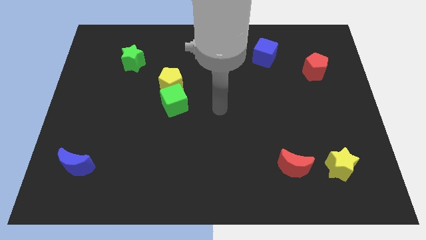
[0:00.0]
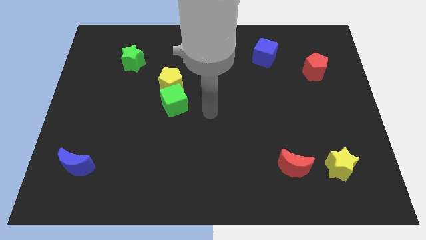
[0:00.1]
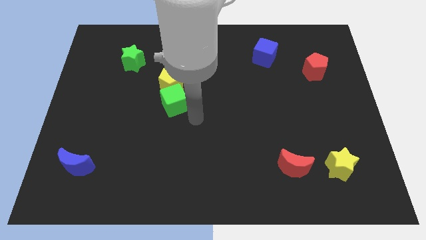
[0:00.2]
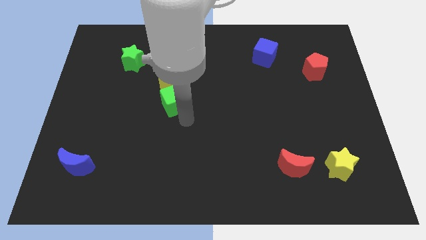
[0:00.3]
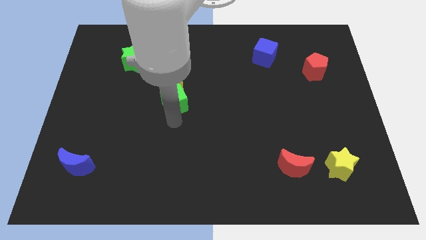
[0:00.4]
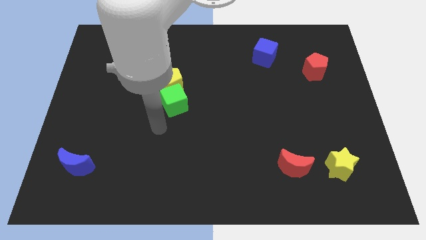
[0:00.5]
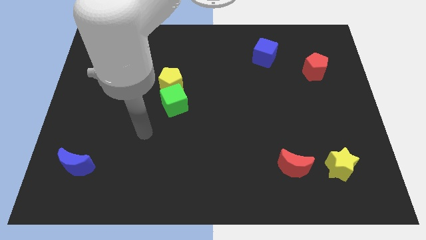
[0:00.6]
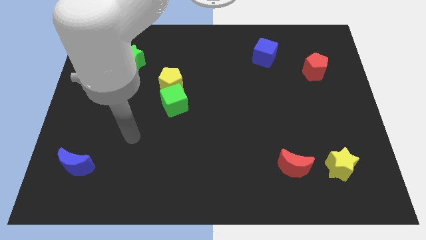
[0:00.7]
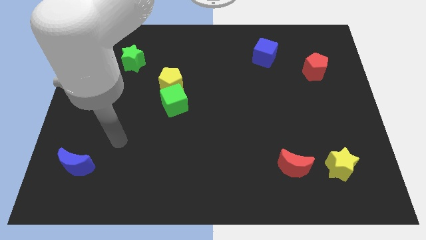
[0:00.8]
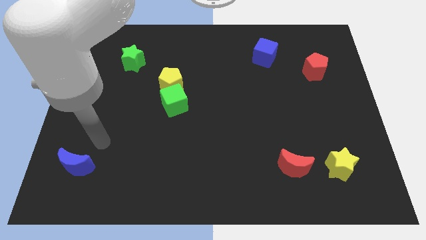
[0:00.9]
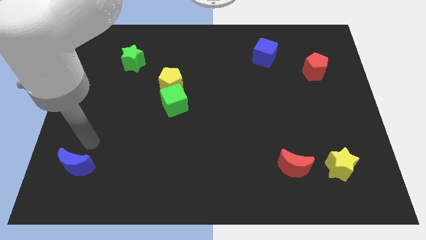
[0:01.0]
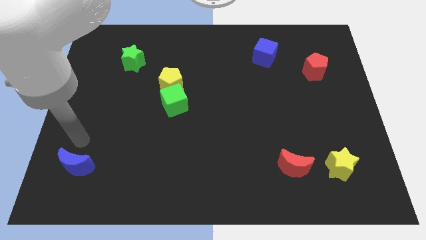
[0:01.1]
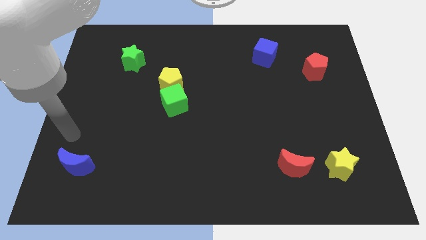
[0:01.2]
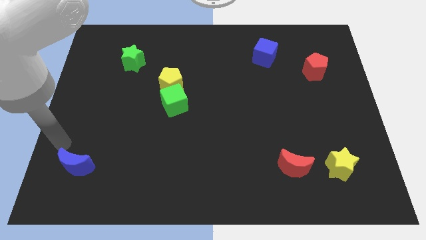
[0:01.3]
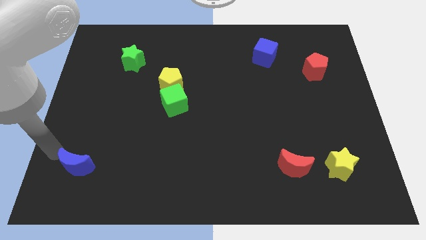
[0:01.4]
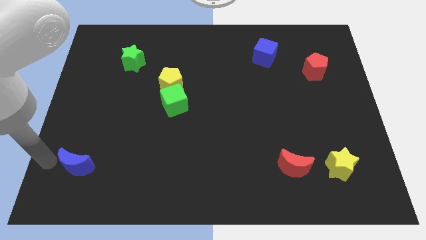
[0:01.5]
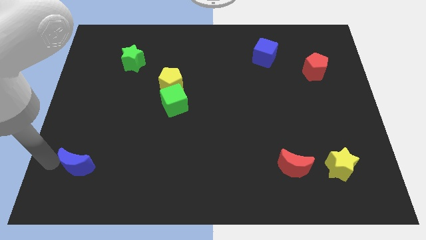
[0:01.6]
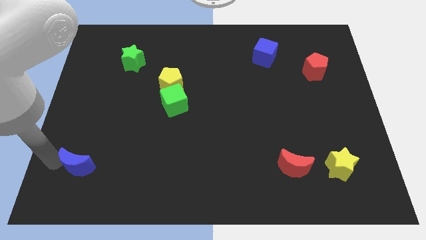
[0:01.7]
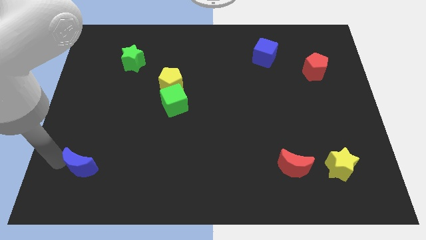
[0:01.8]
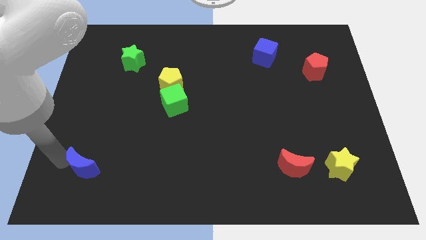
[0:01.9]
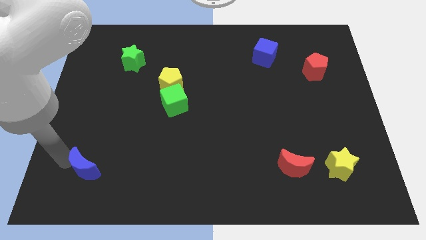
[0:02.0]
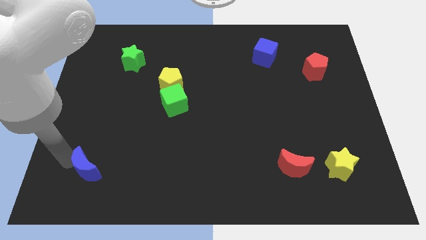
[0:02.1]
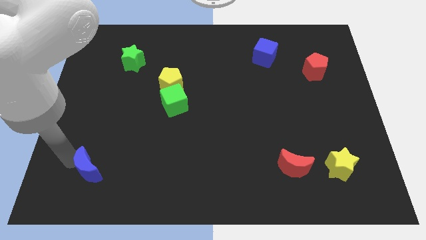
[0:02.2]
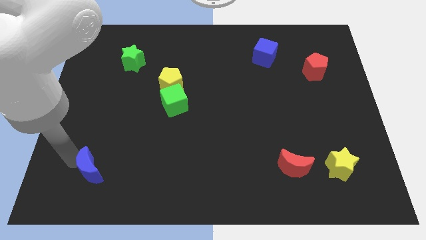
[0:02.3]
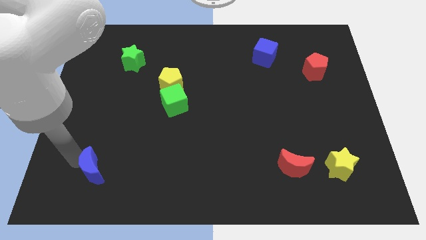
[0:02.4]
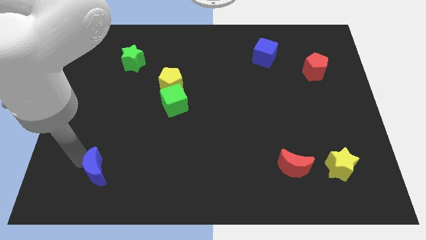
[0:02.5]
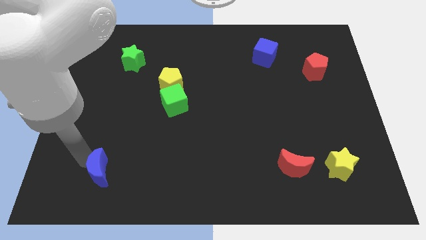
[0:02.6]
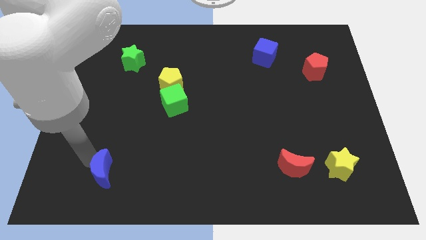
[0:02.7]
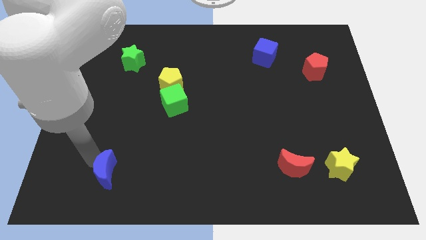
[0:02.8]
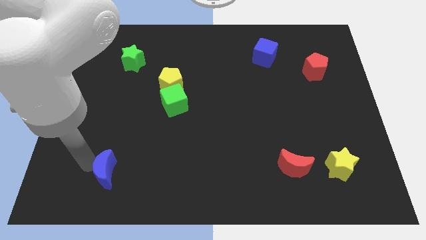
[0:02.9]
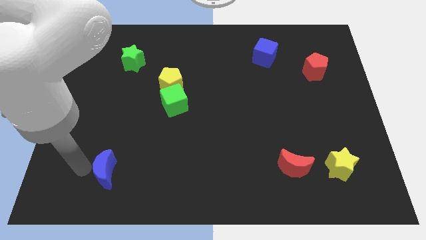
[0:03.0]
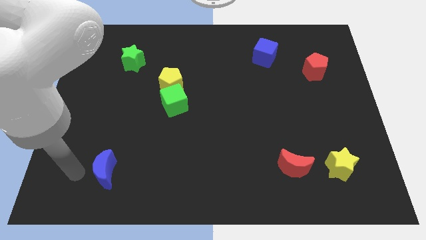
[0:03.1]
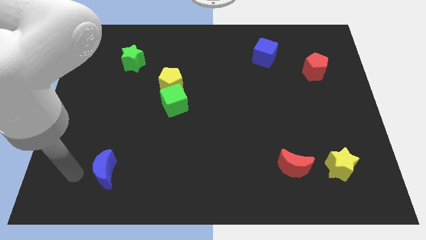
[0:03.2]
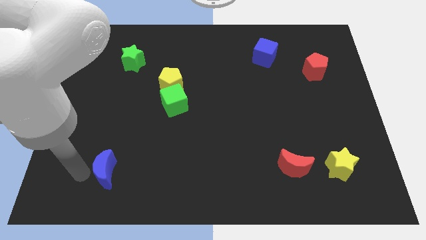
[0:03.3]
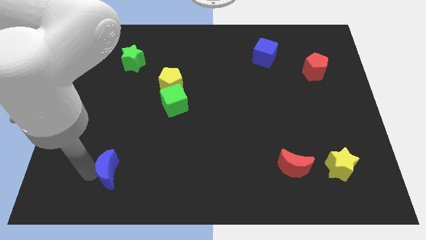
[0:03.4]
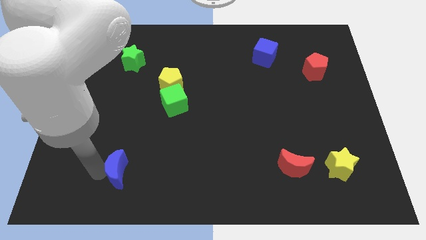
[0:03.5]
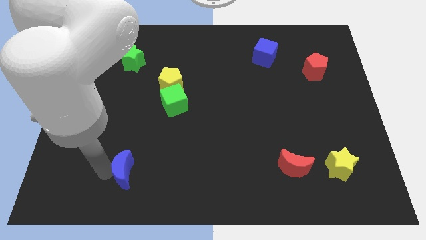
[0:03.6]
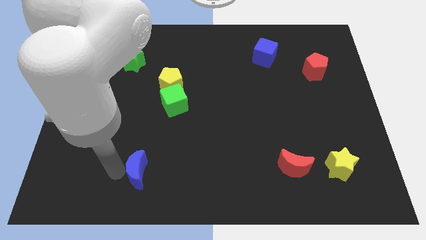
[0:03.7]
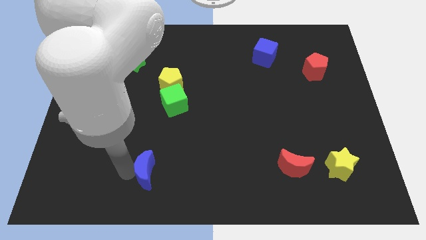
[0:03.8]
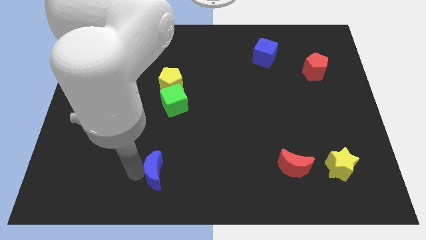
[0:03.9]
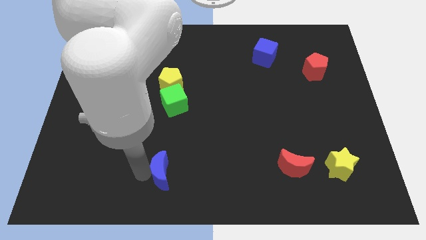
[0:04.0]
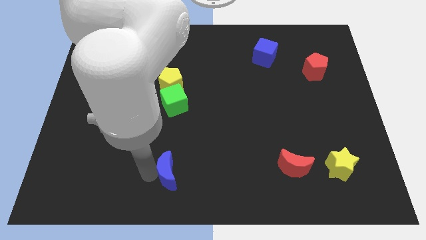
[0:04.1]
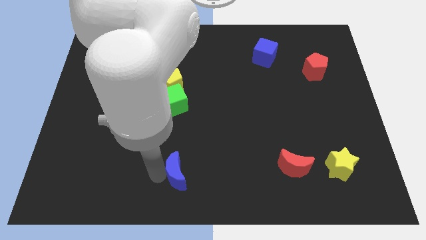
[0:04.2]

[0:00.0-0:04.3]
slide the blue moon to the right

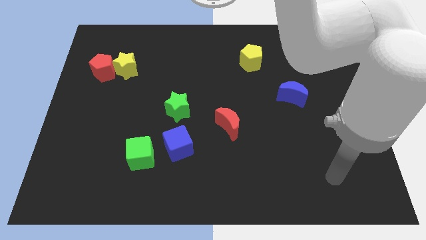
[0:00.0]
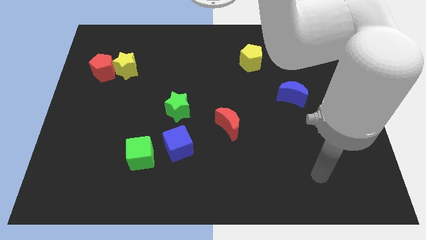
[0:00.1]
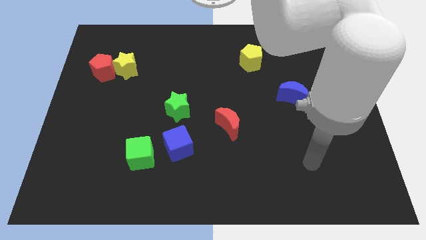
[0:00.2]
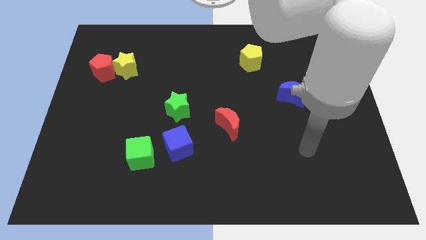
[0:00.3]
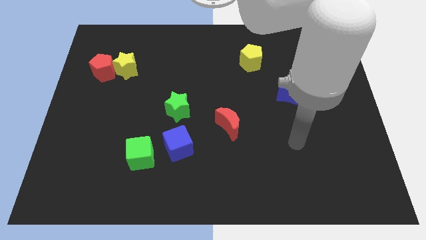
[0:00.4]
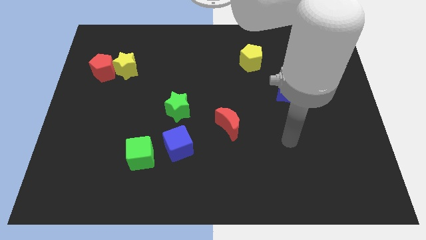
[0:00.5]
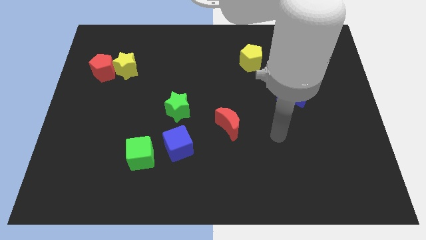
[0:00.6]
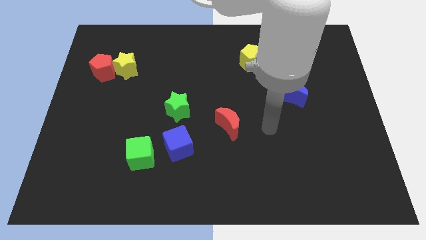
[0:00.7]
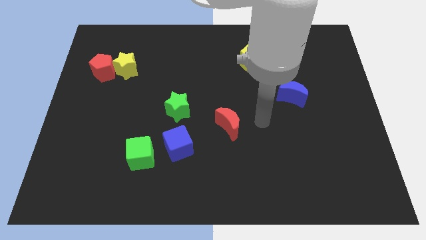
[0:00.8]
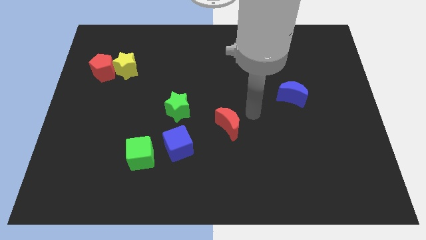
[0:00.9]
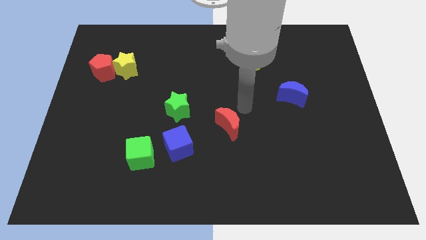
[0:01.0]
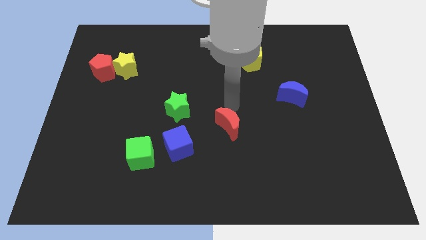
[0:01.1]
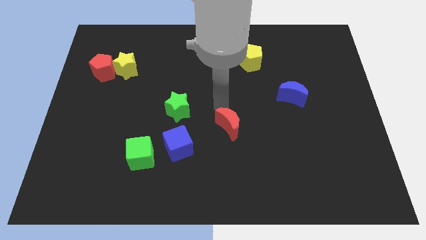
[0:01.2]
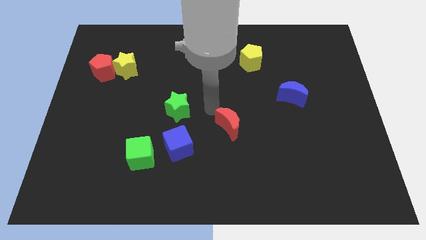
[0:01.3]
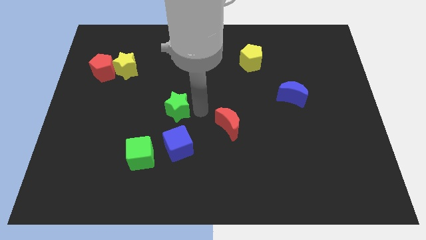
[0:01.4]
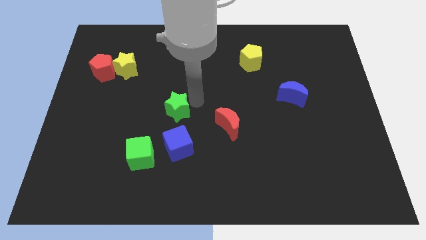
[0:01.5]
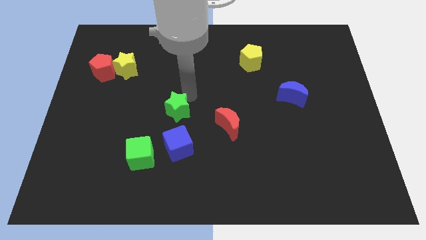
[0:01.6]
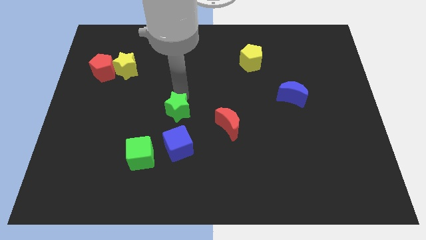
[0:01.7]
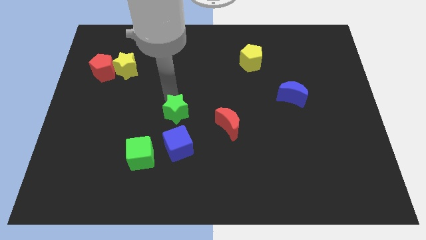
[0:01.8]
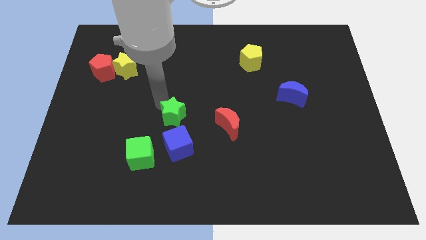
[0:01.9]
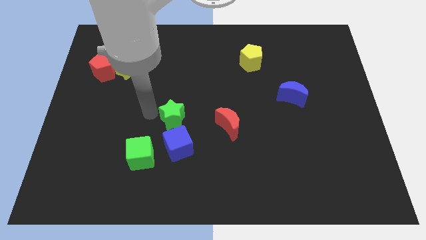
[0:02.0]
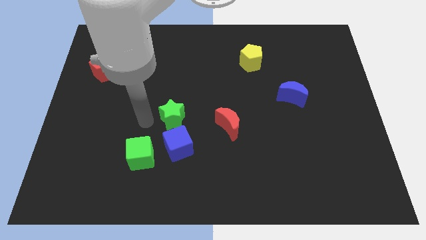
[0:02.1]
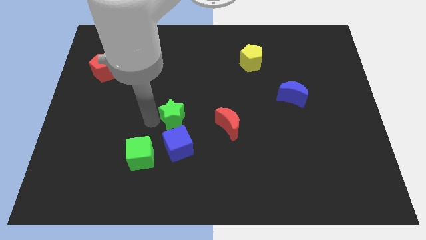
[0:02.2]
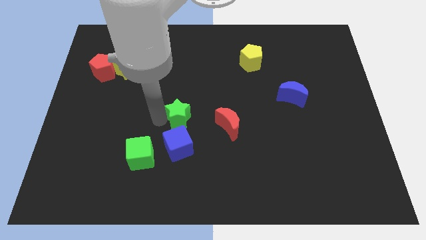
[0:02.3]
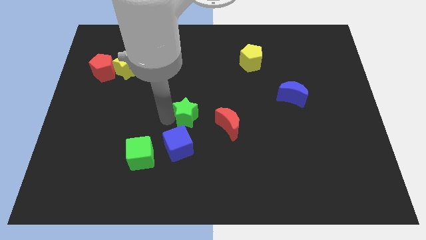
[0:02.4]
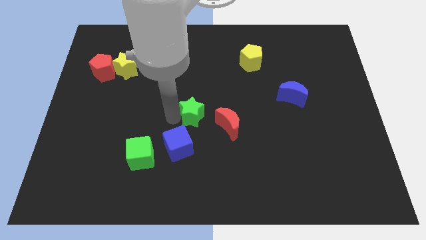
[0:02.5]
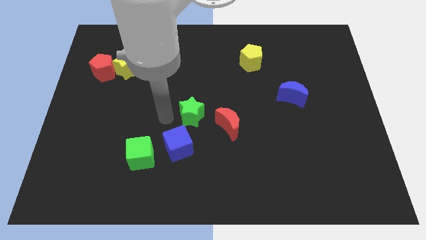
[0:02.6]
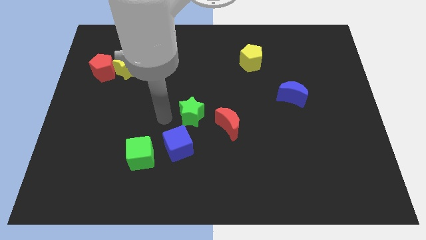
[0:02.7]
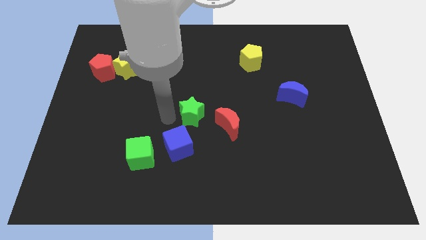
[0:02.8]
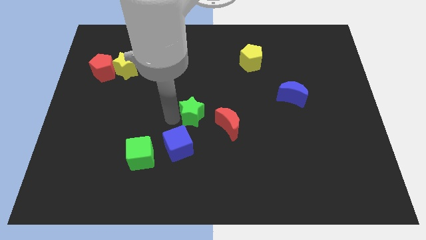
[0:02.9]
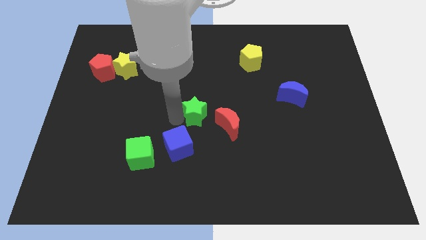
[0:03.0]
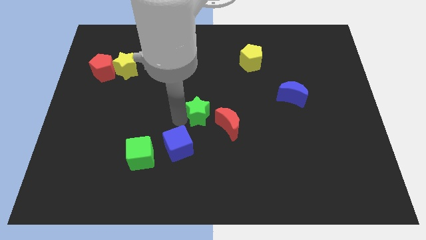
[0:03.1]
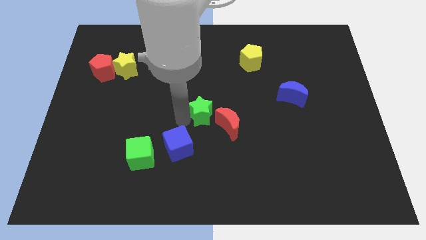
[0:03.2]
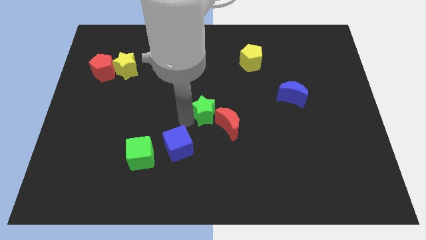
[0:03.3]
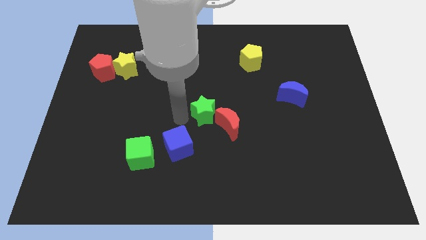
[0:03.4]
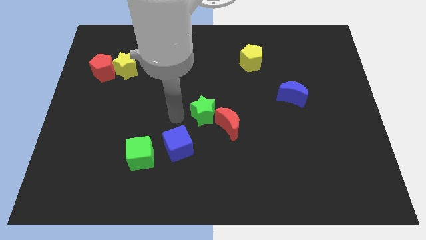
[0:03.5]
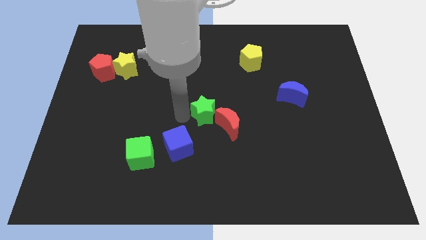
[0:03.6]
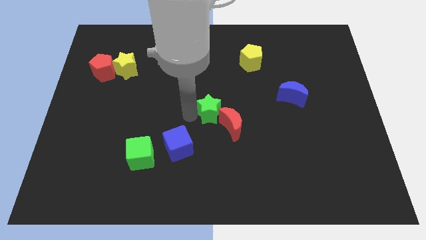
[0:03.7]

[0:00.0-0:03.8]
move the green star a bit right
